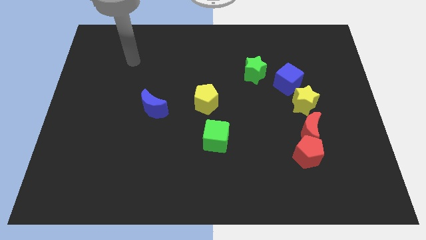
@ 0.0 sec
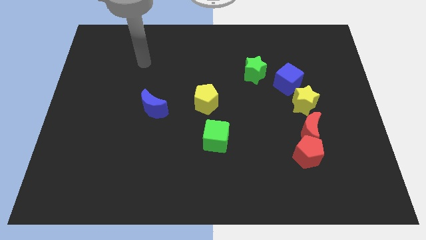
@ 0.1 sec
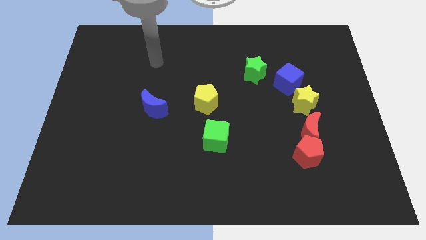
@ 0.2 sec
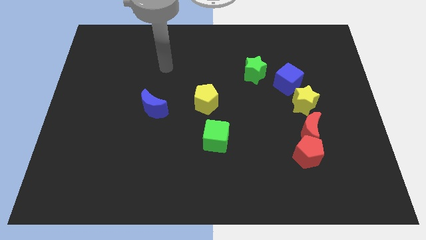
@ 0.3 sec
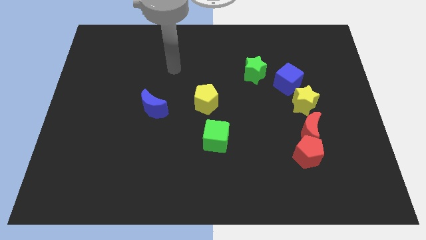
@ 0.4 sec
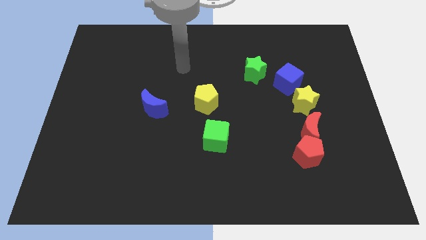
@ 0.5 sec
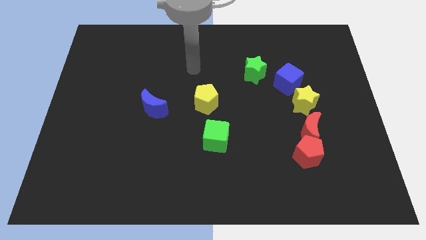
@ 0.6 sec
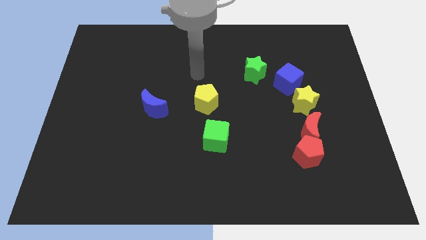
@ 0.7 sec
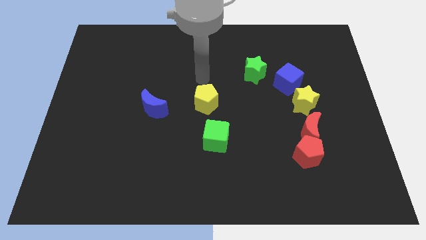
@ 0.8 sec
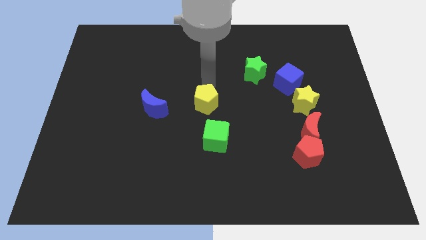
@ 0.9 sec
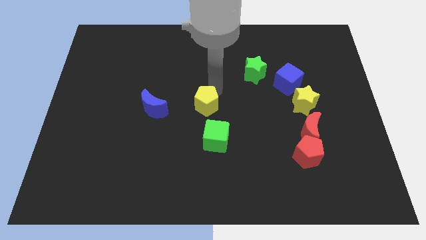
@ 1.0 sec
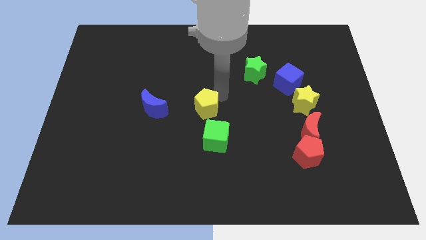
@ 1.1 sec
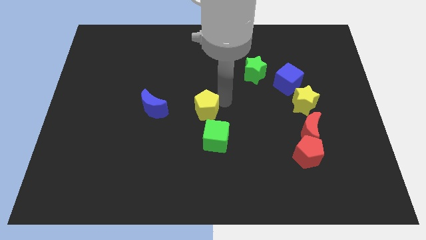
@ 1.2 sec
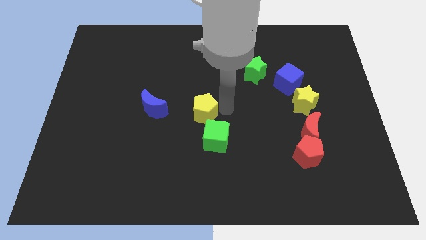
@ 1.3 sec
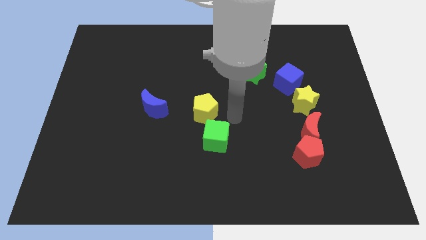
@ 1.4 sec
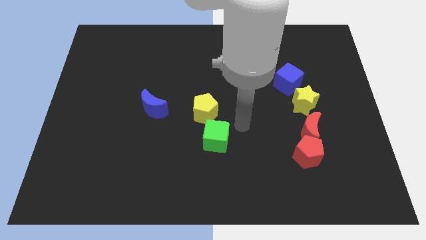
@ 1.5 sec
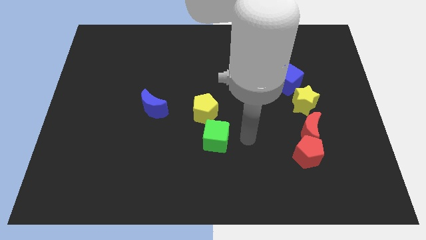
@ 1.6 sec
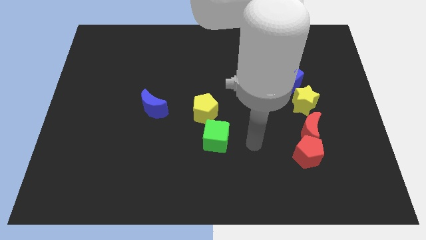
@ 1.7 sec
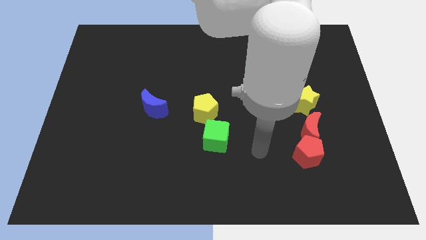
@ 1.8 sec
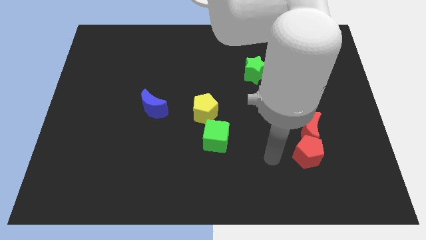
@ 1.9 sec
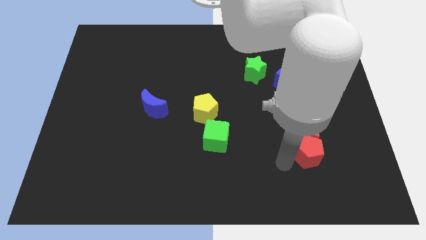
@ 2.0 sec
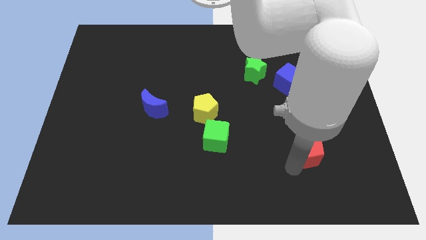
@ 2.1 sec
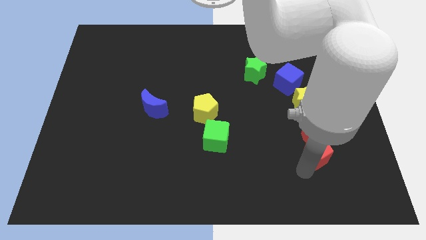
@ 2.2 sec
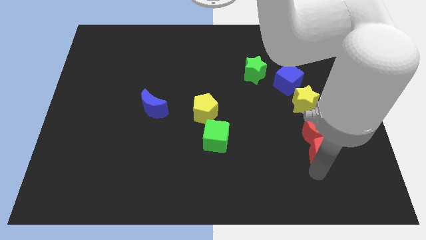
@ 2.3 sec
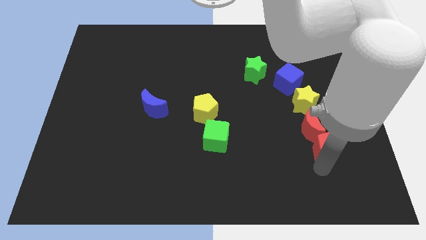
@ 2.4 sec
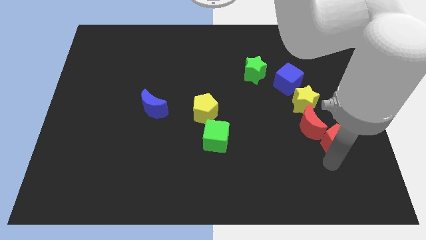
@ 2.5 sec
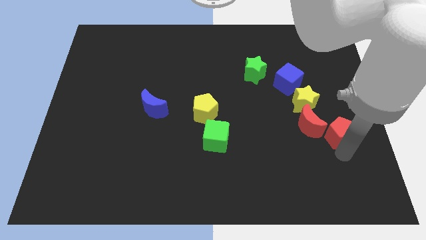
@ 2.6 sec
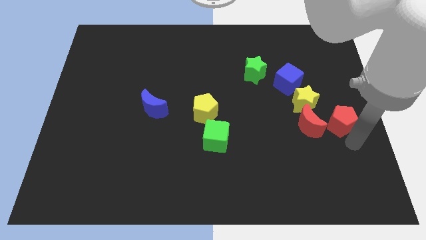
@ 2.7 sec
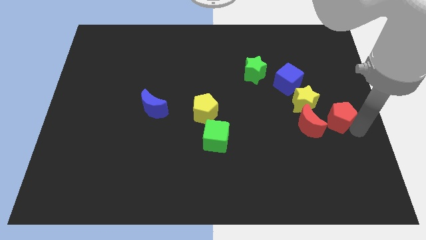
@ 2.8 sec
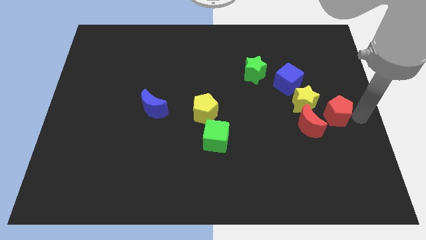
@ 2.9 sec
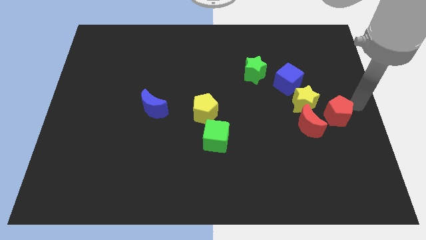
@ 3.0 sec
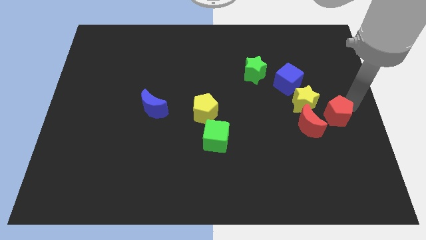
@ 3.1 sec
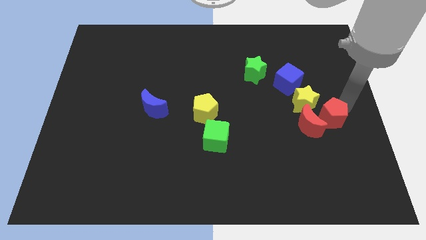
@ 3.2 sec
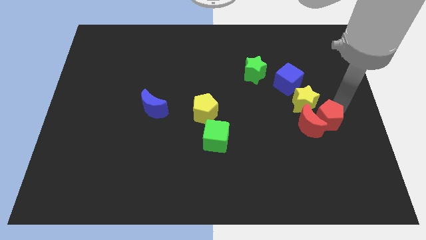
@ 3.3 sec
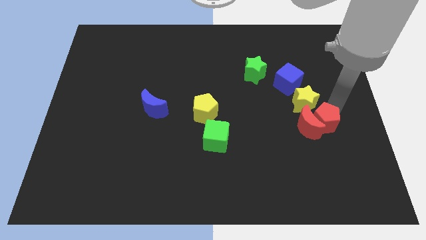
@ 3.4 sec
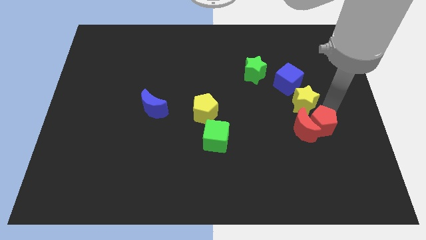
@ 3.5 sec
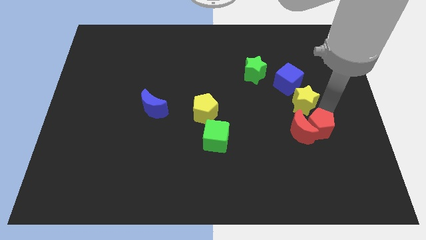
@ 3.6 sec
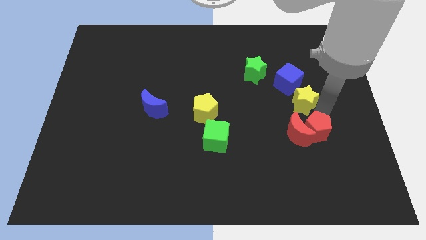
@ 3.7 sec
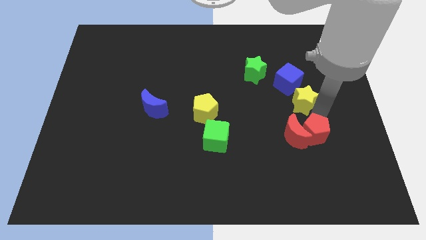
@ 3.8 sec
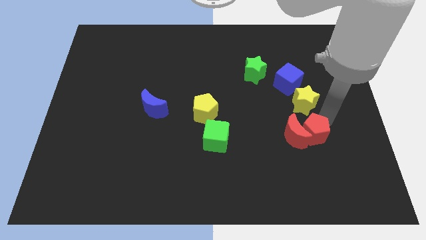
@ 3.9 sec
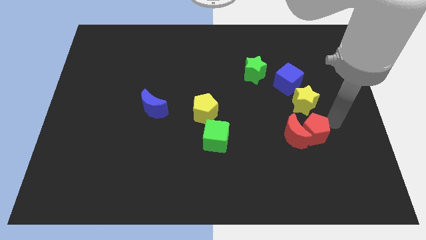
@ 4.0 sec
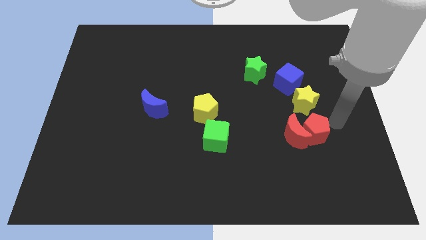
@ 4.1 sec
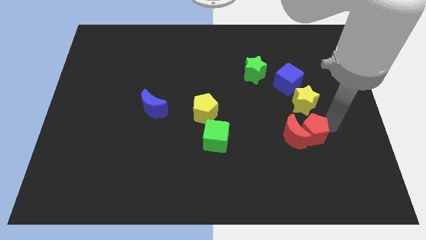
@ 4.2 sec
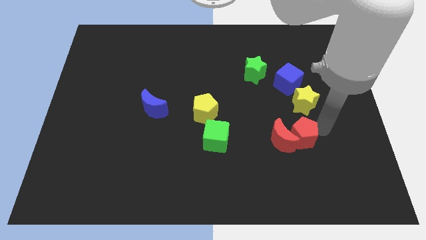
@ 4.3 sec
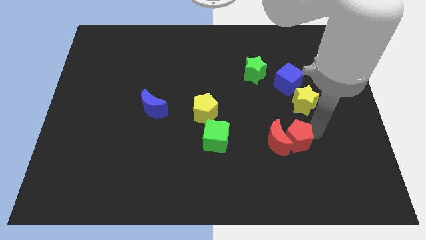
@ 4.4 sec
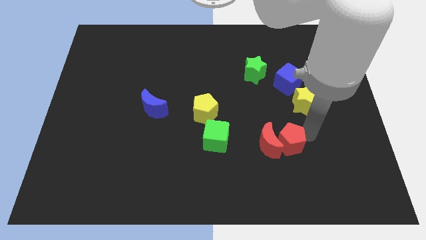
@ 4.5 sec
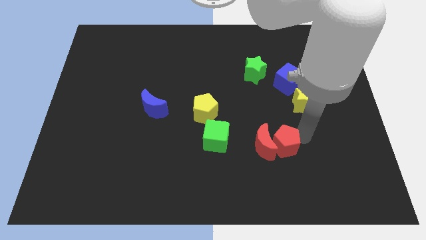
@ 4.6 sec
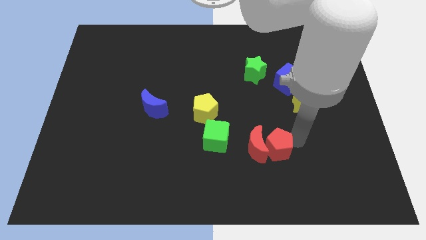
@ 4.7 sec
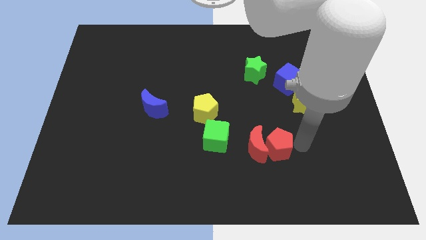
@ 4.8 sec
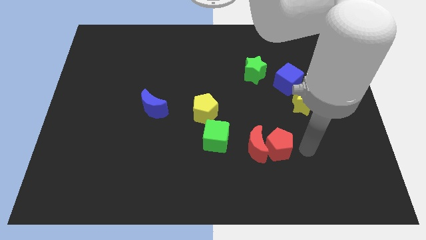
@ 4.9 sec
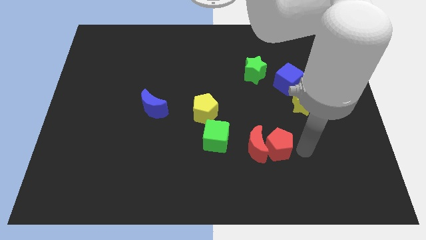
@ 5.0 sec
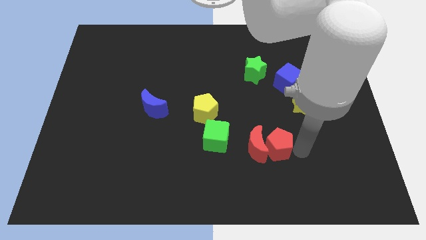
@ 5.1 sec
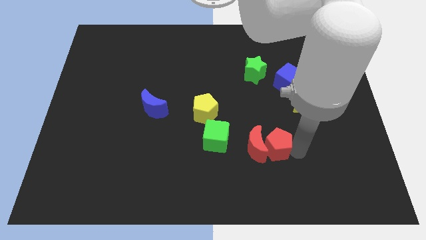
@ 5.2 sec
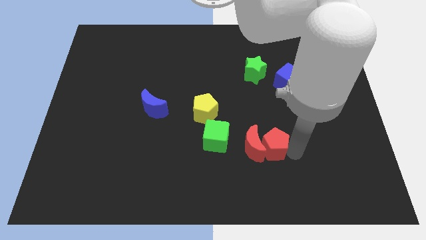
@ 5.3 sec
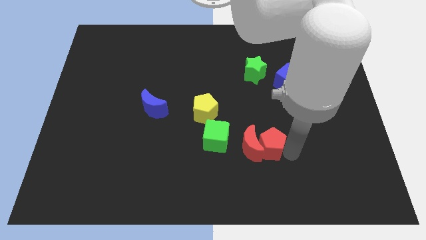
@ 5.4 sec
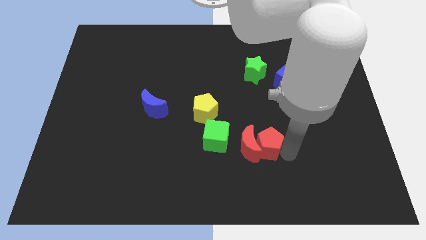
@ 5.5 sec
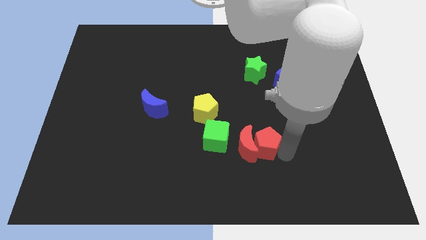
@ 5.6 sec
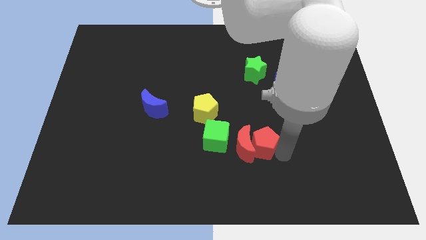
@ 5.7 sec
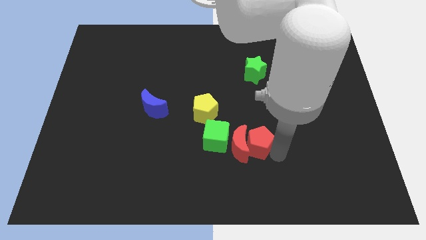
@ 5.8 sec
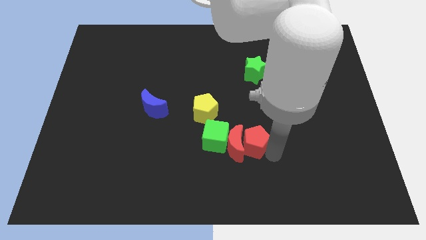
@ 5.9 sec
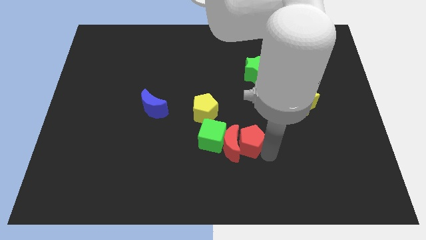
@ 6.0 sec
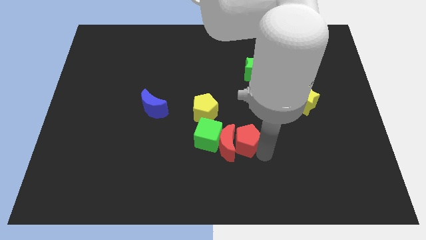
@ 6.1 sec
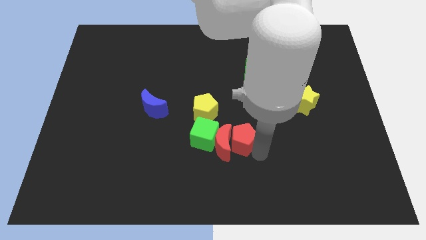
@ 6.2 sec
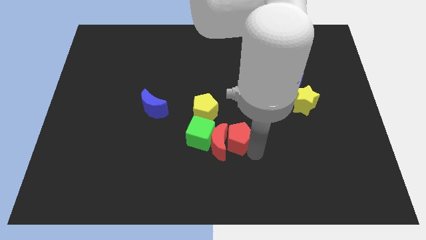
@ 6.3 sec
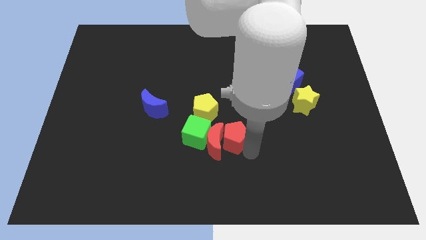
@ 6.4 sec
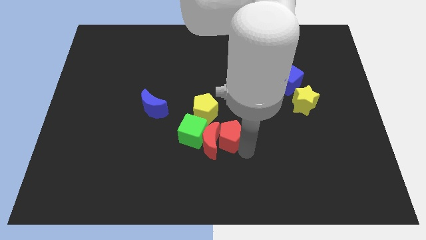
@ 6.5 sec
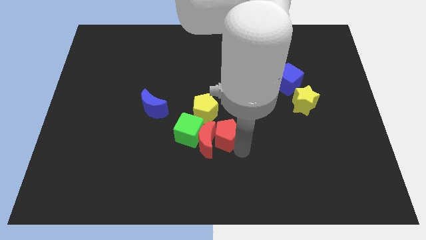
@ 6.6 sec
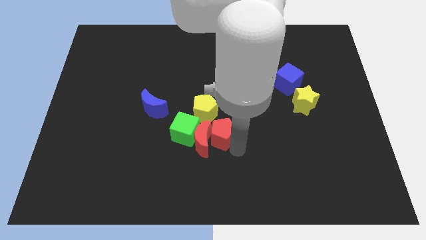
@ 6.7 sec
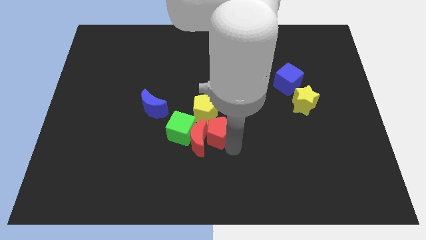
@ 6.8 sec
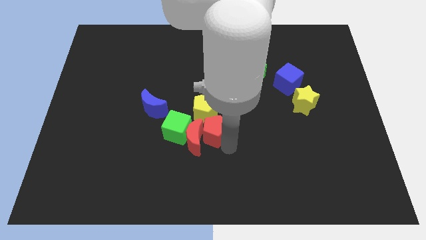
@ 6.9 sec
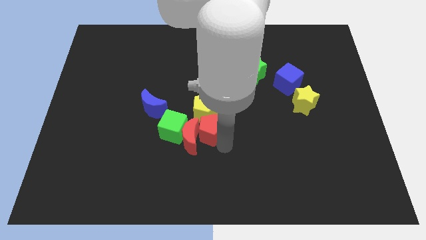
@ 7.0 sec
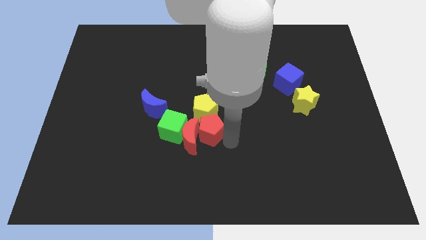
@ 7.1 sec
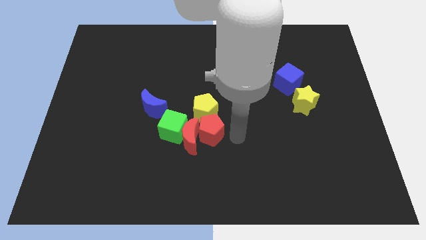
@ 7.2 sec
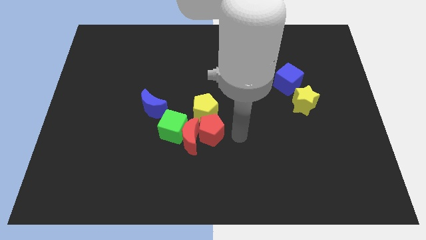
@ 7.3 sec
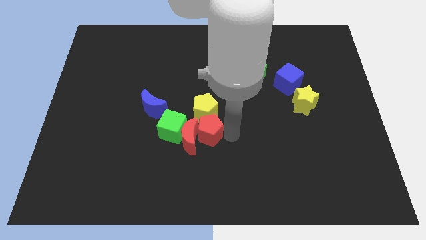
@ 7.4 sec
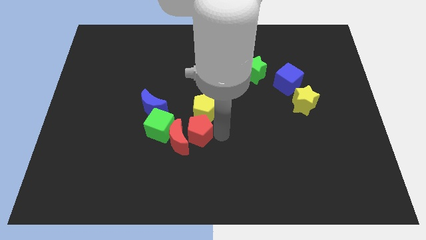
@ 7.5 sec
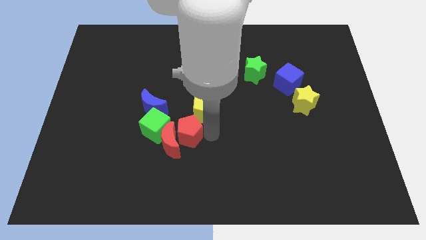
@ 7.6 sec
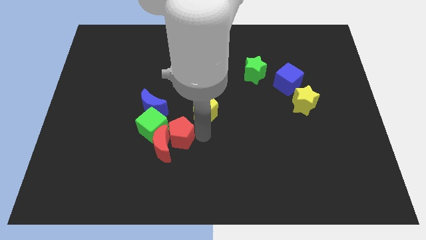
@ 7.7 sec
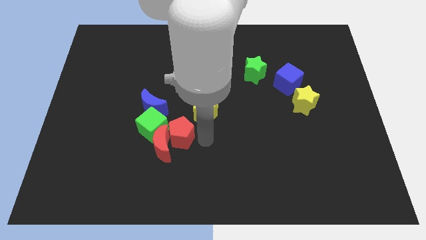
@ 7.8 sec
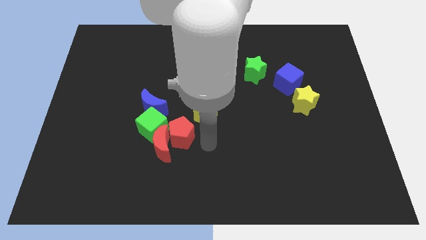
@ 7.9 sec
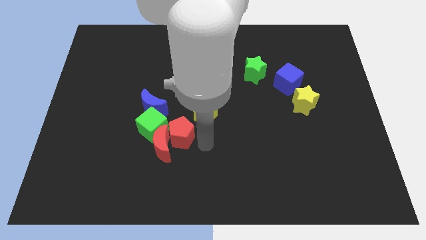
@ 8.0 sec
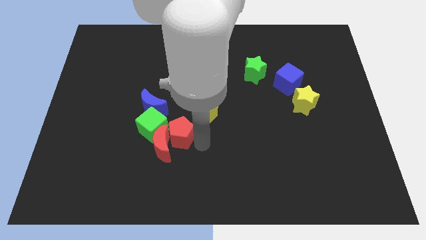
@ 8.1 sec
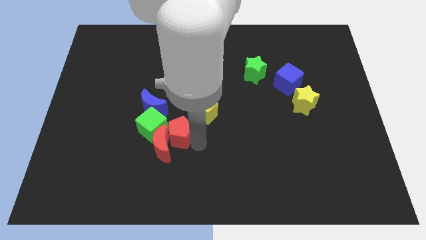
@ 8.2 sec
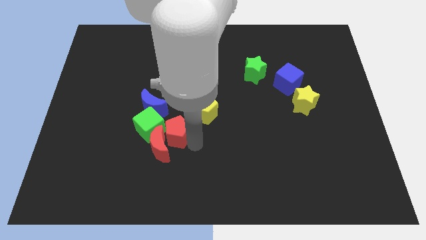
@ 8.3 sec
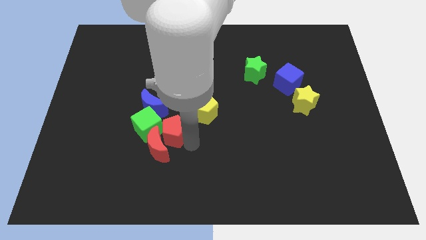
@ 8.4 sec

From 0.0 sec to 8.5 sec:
push the red pentagon towards the green cube
